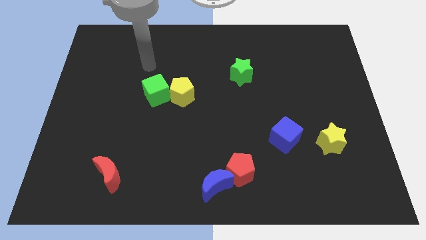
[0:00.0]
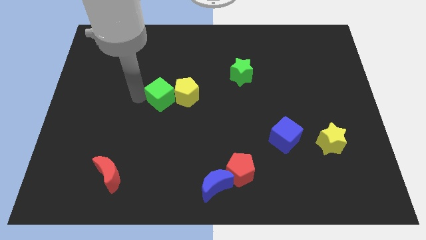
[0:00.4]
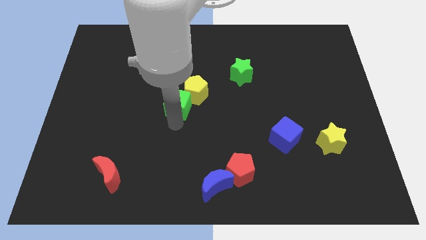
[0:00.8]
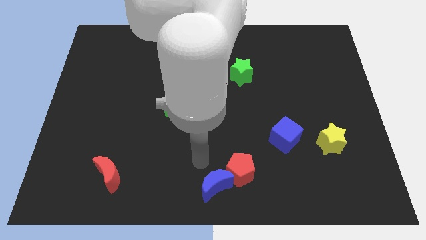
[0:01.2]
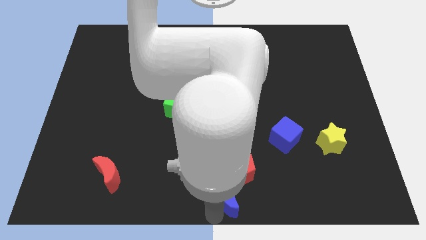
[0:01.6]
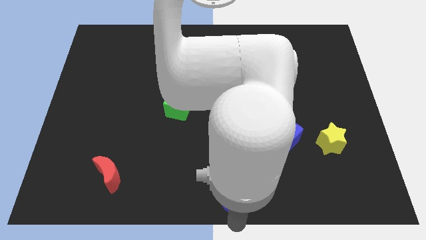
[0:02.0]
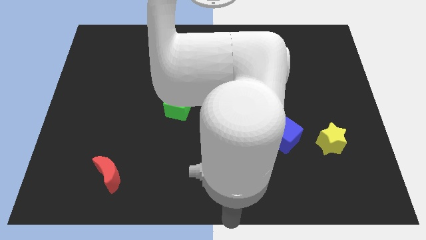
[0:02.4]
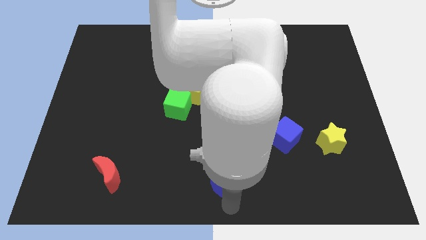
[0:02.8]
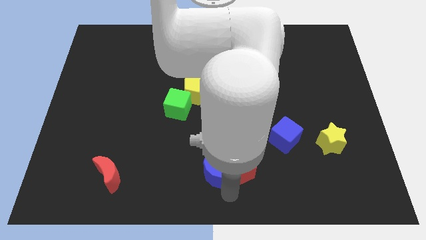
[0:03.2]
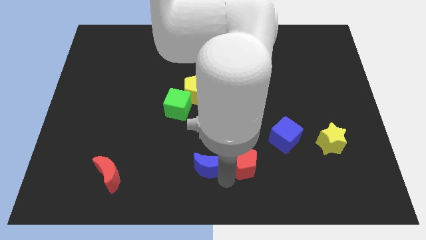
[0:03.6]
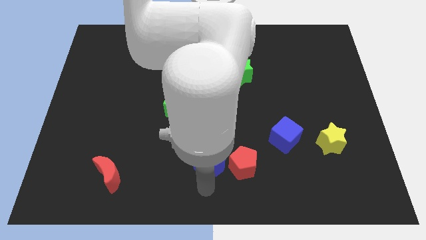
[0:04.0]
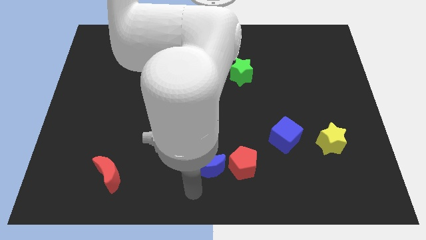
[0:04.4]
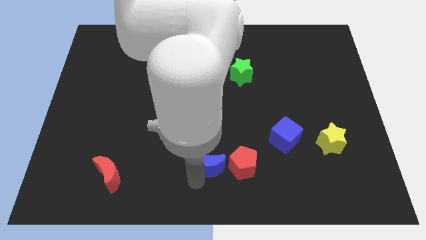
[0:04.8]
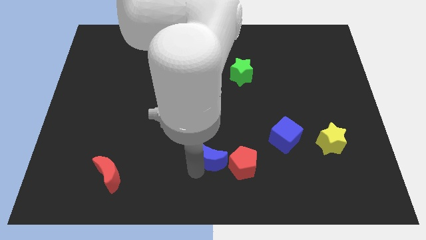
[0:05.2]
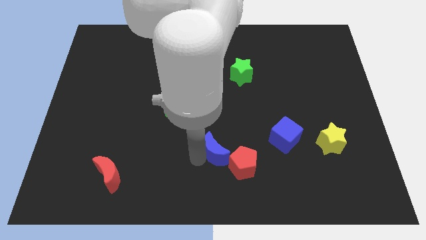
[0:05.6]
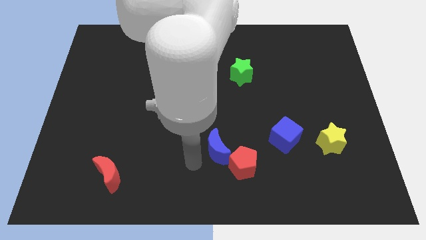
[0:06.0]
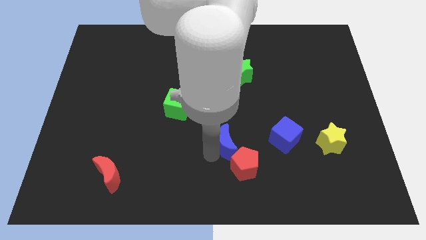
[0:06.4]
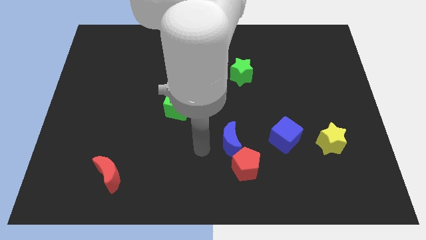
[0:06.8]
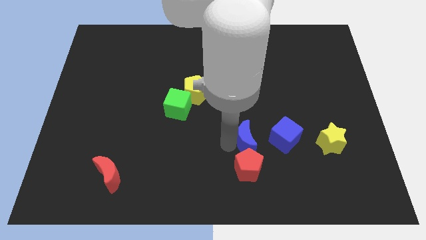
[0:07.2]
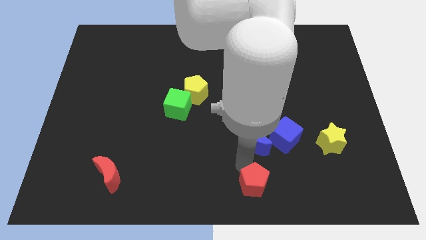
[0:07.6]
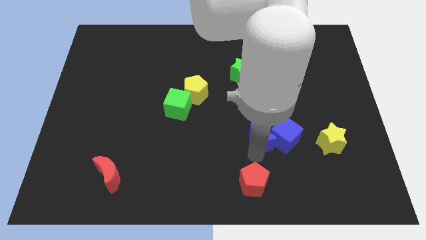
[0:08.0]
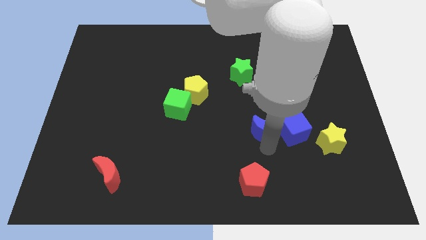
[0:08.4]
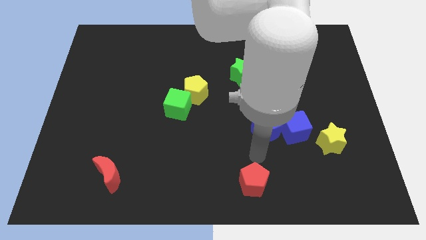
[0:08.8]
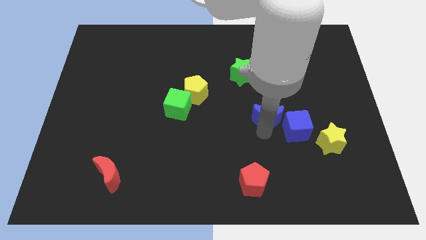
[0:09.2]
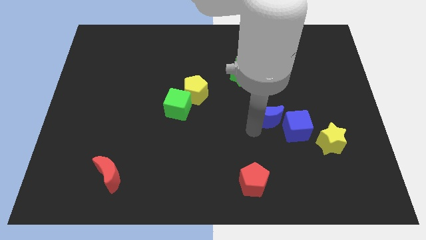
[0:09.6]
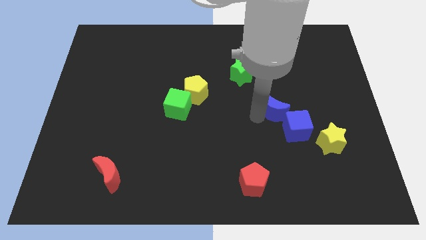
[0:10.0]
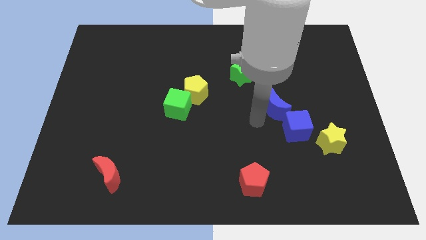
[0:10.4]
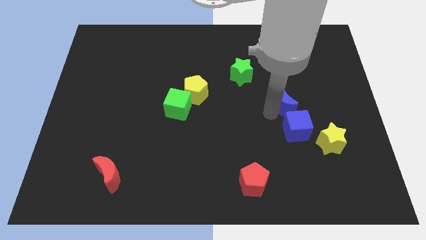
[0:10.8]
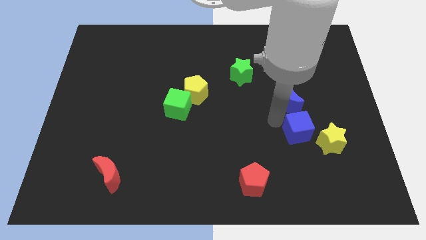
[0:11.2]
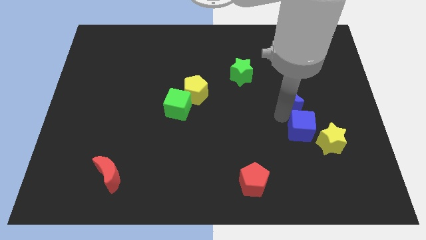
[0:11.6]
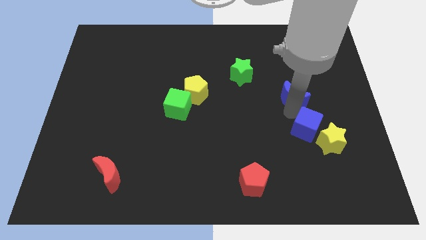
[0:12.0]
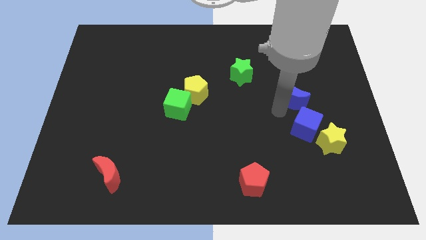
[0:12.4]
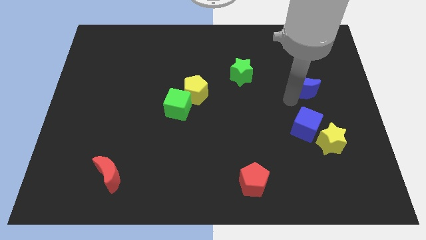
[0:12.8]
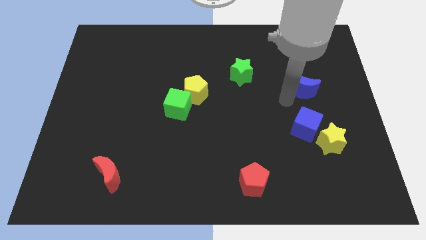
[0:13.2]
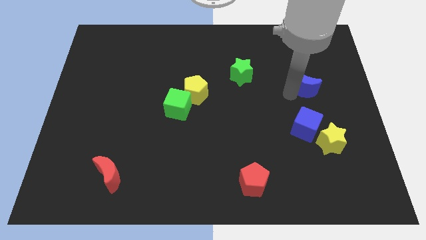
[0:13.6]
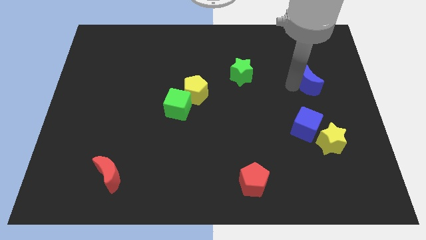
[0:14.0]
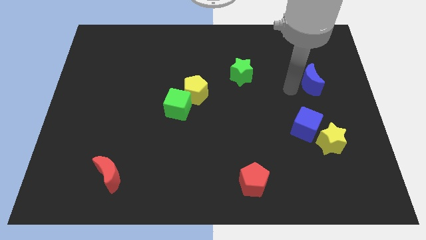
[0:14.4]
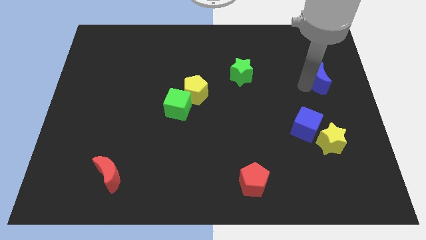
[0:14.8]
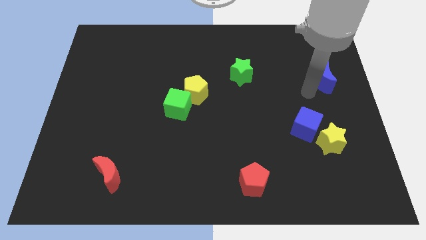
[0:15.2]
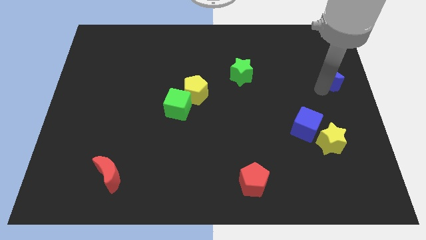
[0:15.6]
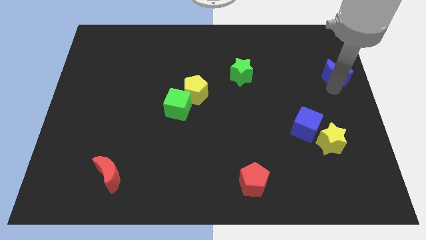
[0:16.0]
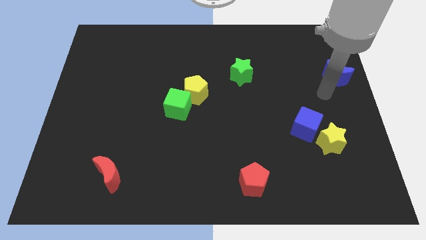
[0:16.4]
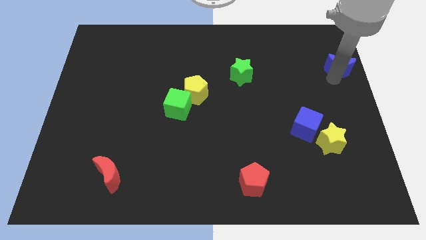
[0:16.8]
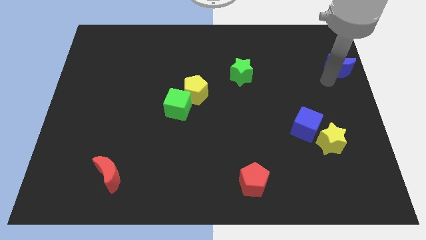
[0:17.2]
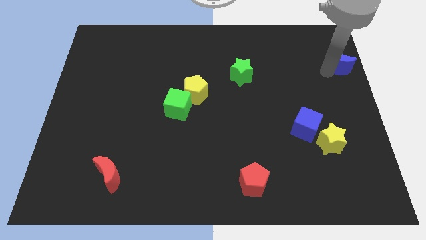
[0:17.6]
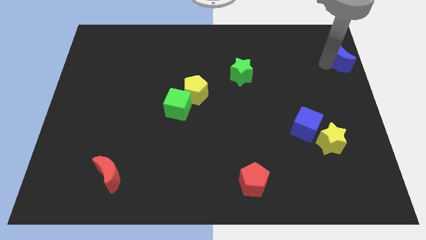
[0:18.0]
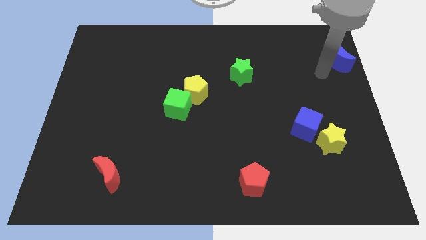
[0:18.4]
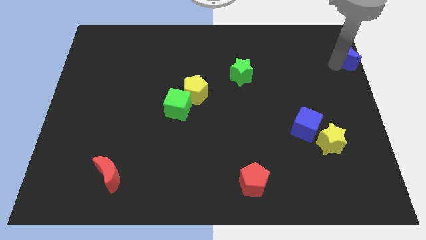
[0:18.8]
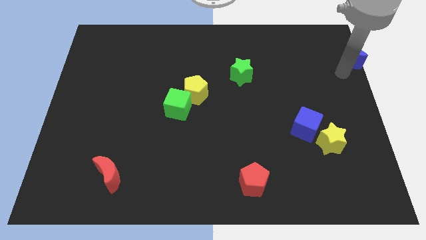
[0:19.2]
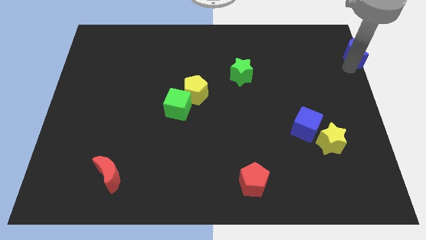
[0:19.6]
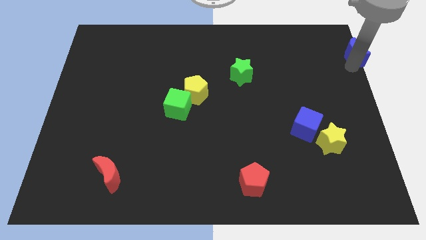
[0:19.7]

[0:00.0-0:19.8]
move the blue moon to the top right of the board
